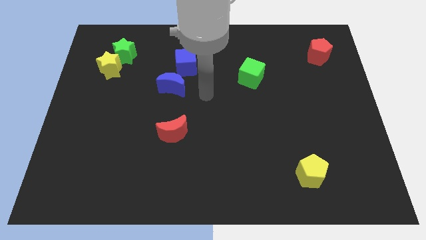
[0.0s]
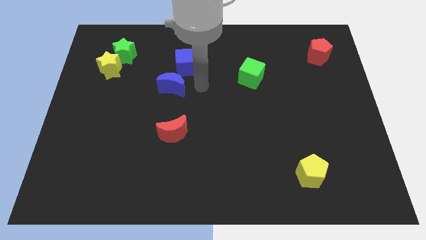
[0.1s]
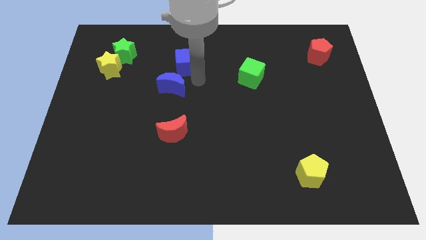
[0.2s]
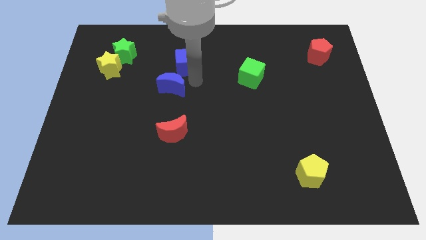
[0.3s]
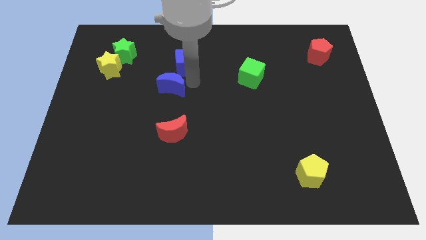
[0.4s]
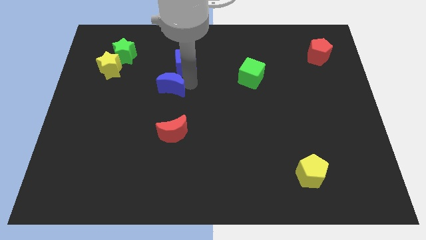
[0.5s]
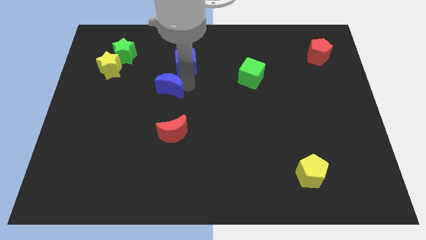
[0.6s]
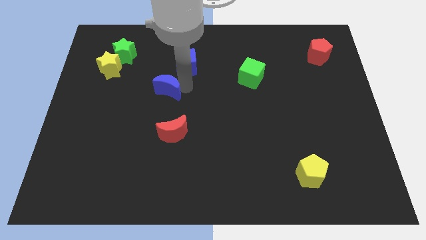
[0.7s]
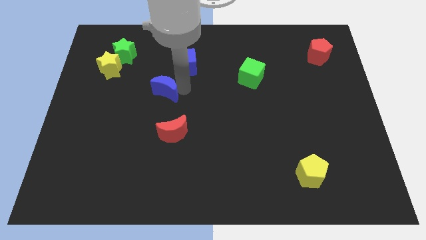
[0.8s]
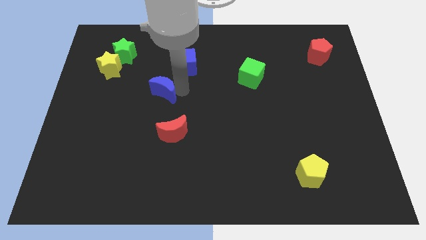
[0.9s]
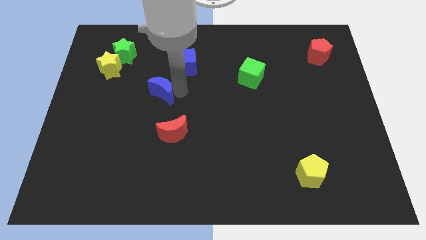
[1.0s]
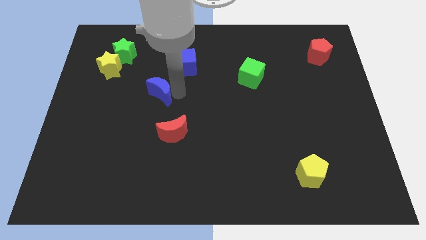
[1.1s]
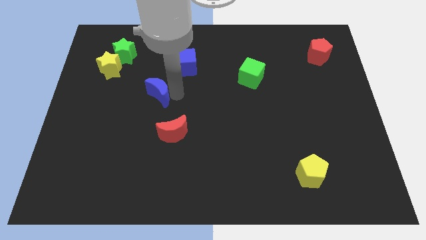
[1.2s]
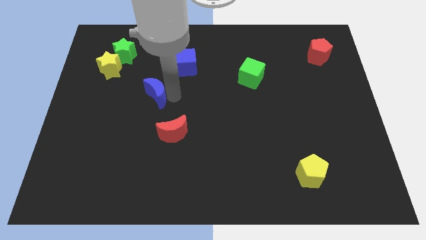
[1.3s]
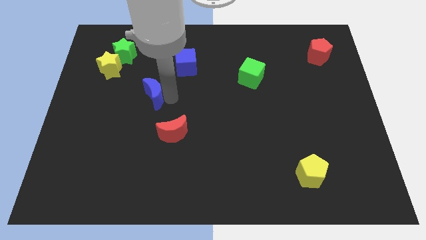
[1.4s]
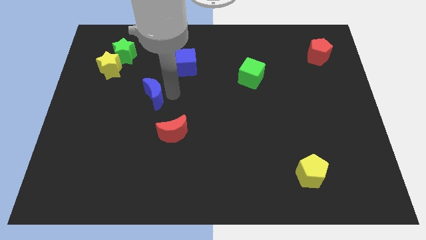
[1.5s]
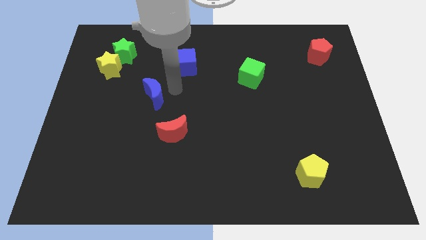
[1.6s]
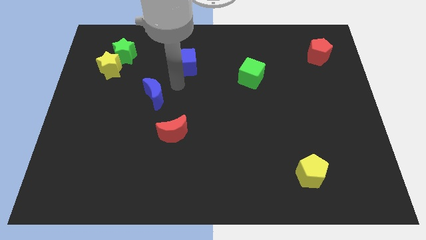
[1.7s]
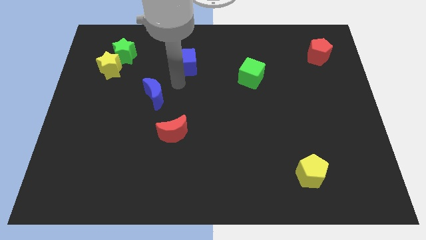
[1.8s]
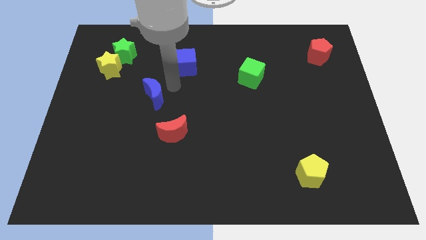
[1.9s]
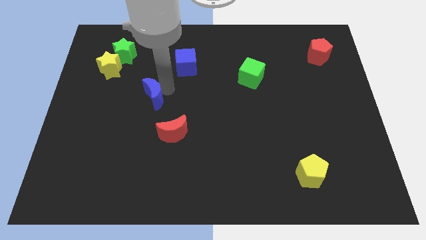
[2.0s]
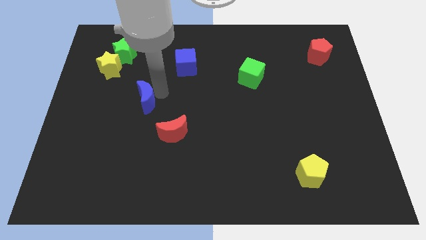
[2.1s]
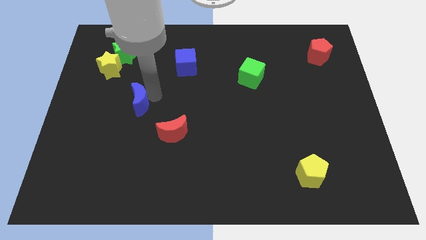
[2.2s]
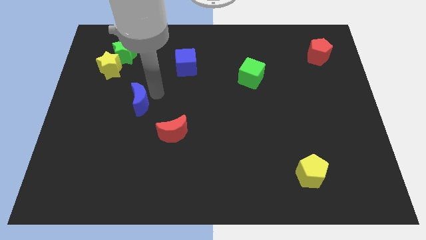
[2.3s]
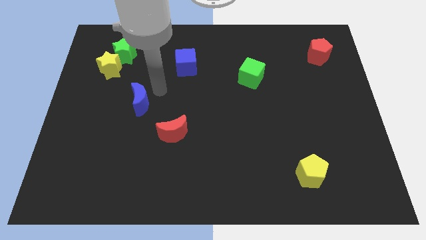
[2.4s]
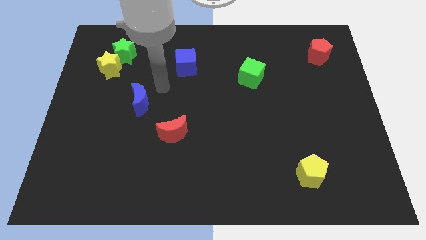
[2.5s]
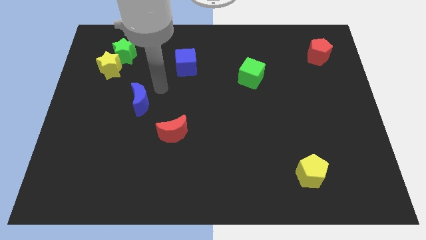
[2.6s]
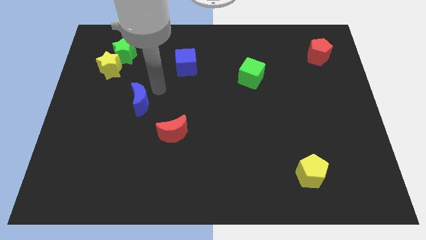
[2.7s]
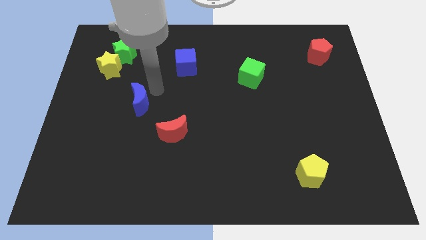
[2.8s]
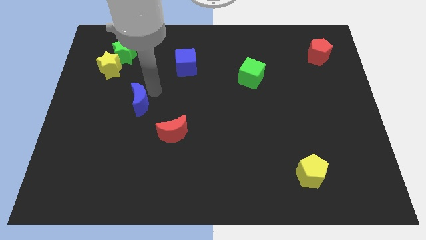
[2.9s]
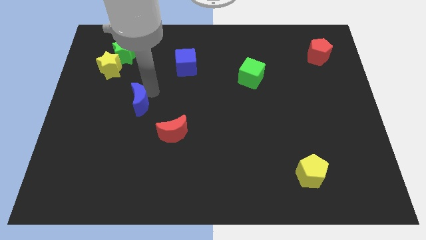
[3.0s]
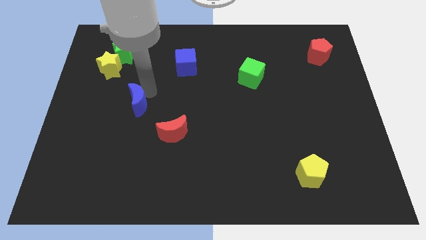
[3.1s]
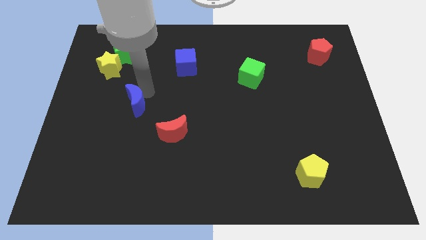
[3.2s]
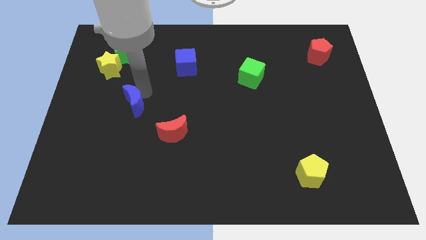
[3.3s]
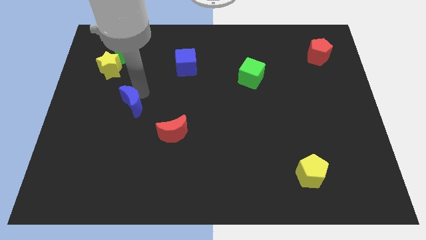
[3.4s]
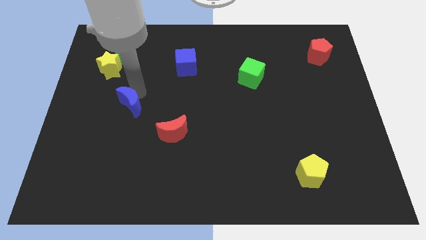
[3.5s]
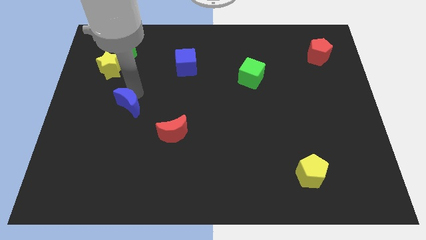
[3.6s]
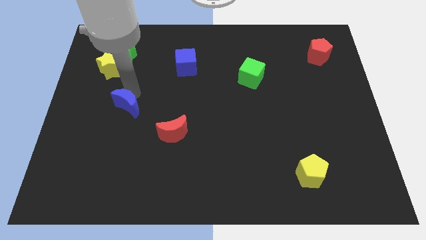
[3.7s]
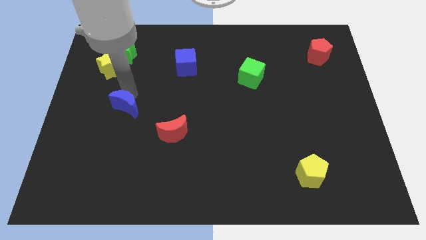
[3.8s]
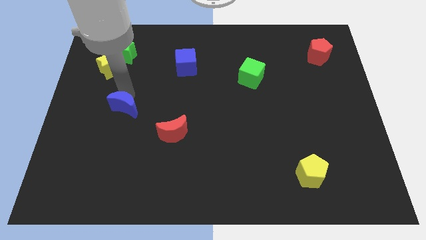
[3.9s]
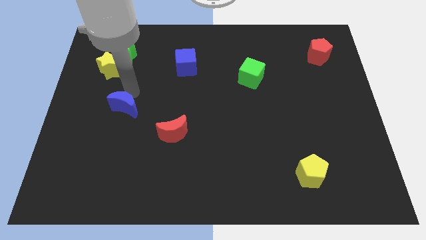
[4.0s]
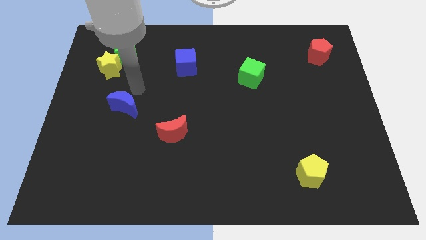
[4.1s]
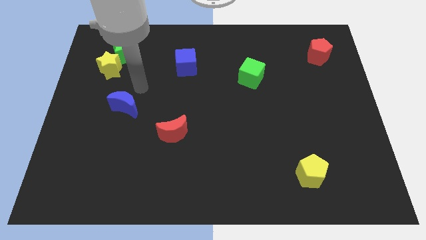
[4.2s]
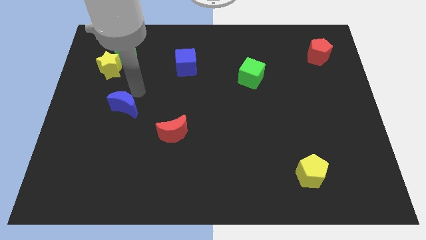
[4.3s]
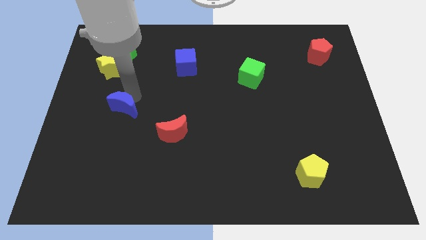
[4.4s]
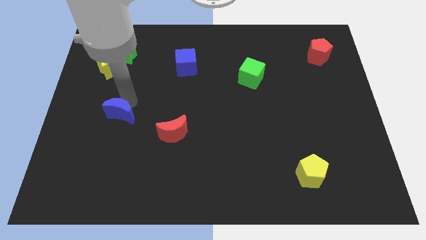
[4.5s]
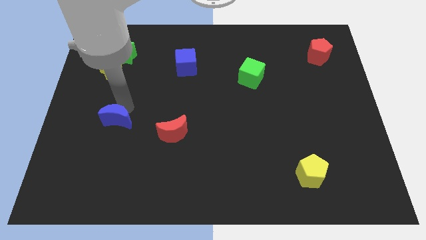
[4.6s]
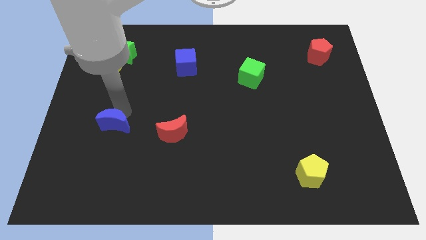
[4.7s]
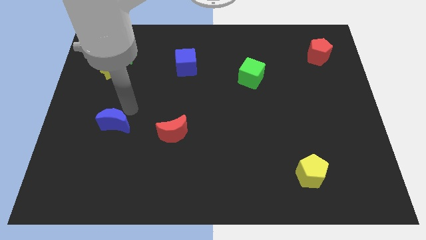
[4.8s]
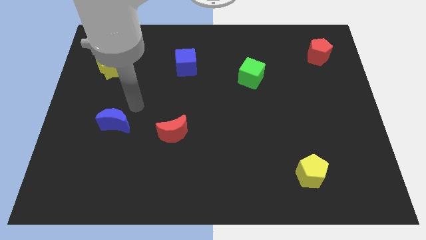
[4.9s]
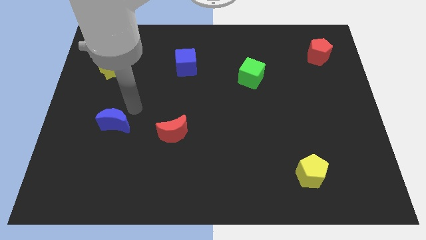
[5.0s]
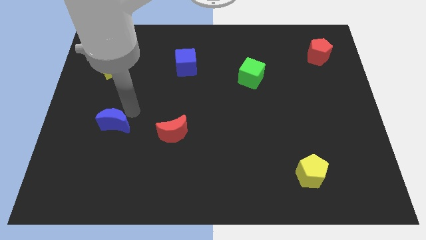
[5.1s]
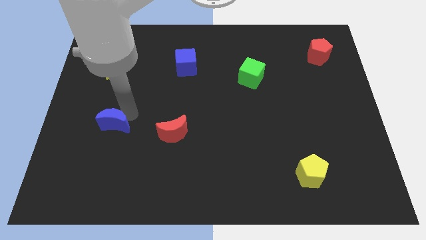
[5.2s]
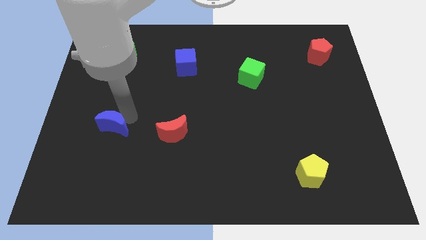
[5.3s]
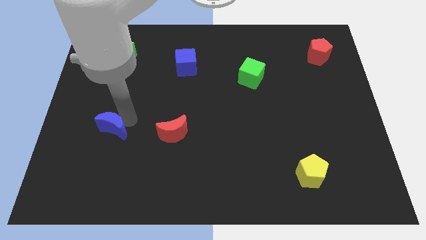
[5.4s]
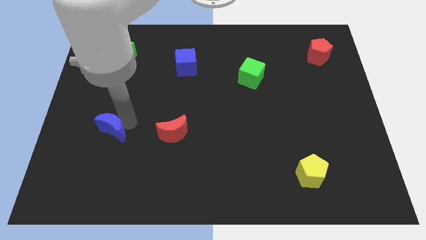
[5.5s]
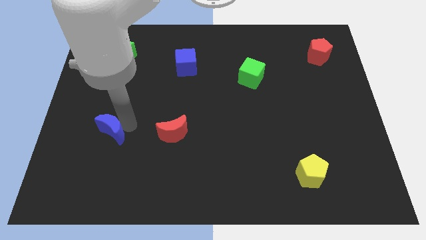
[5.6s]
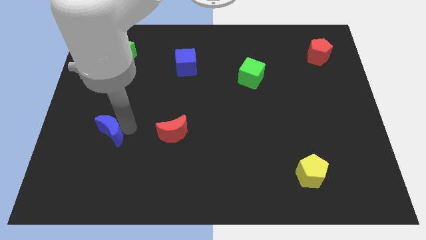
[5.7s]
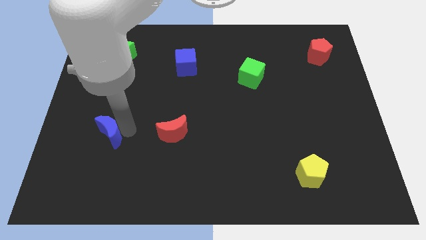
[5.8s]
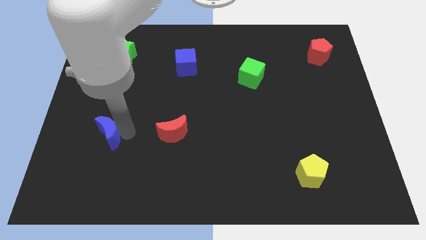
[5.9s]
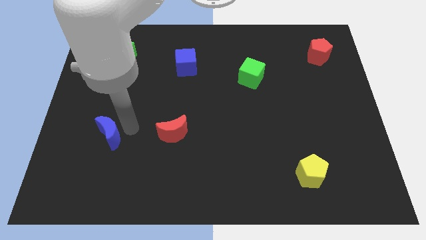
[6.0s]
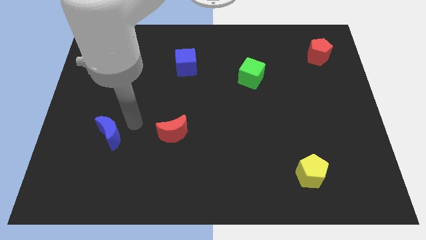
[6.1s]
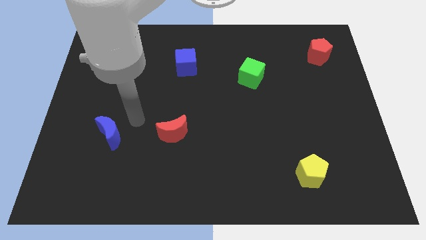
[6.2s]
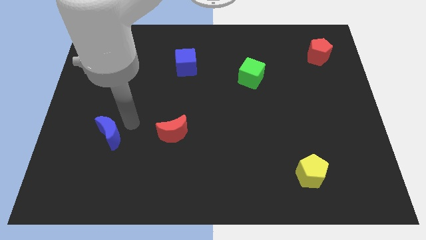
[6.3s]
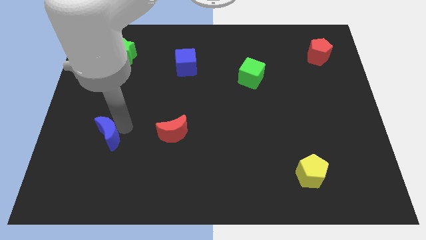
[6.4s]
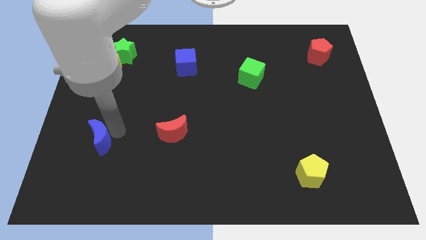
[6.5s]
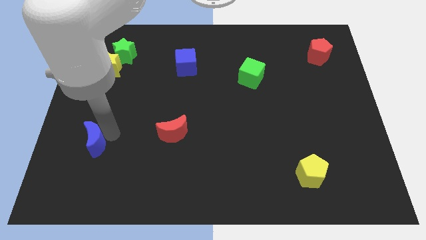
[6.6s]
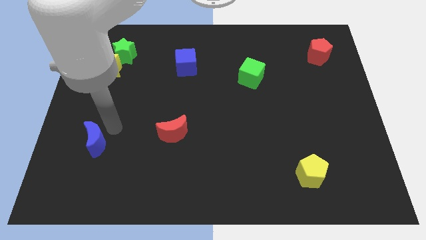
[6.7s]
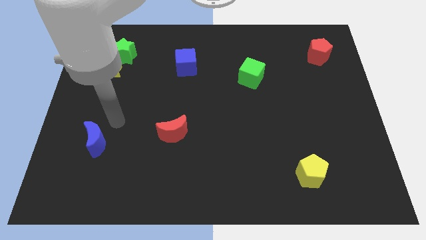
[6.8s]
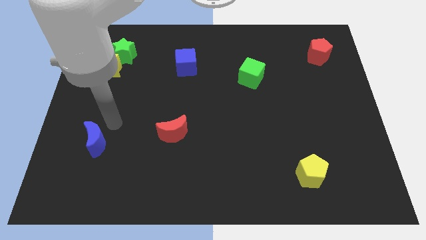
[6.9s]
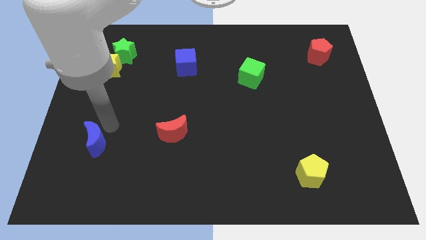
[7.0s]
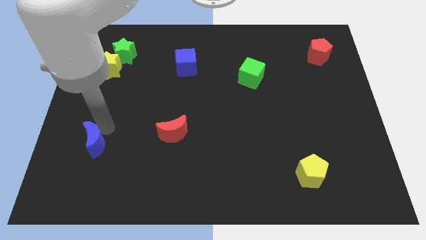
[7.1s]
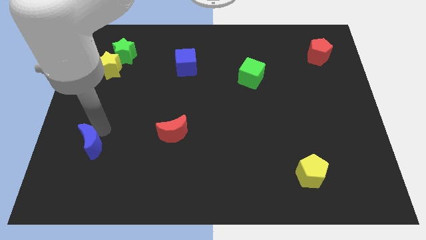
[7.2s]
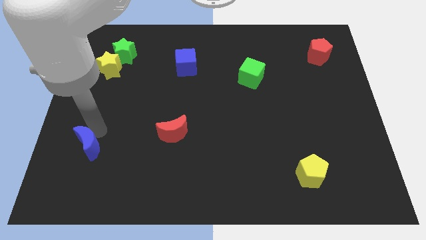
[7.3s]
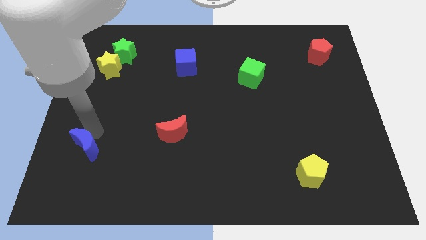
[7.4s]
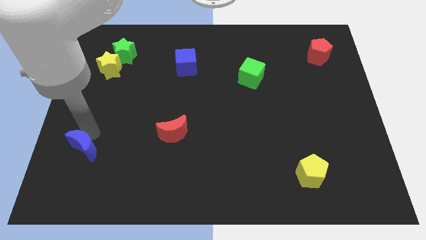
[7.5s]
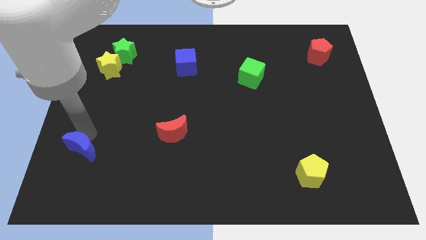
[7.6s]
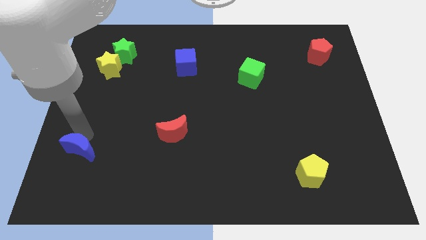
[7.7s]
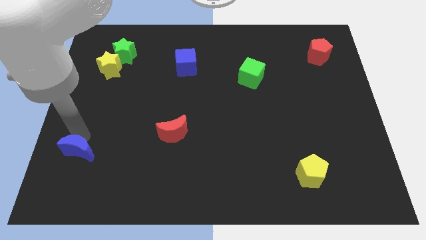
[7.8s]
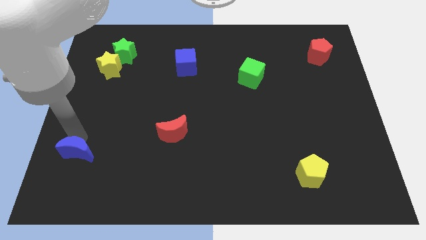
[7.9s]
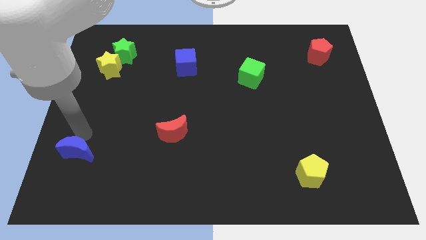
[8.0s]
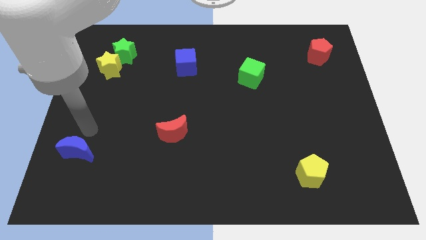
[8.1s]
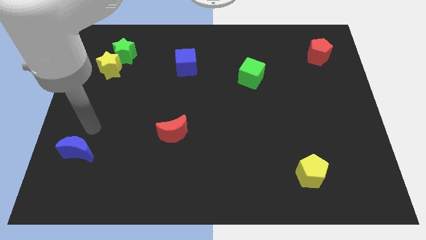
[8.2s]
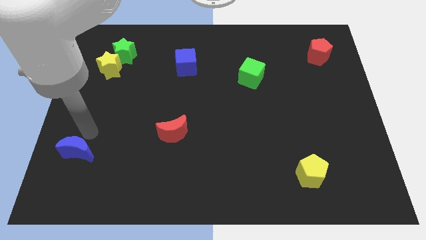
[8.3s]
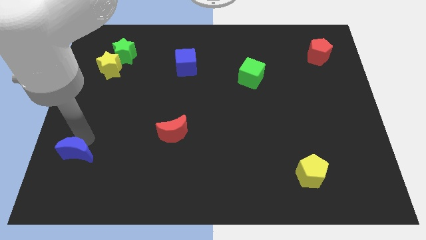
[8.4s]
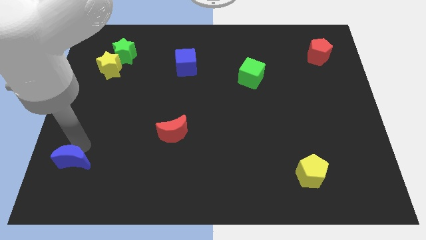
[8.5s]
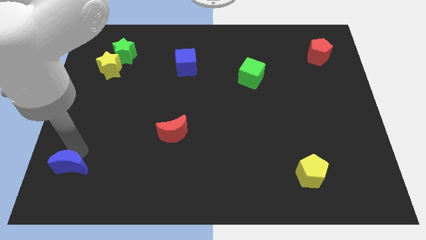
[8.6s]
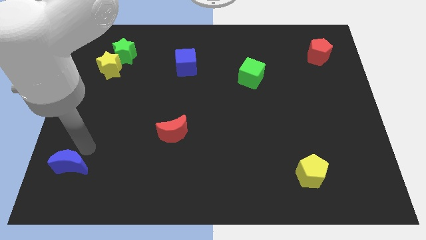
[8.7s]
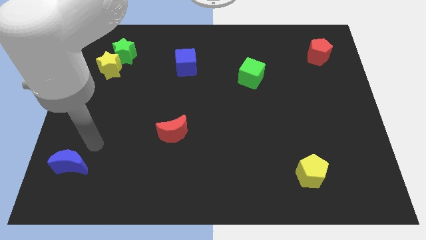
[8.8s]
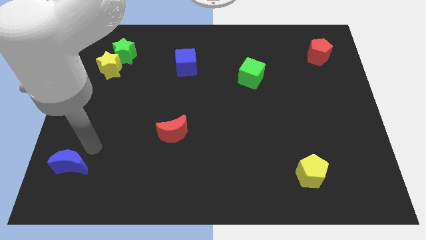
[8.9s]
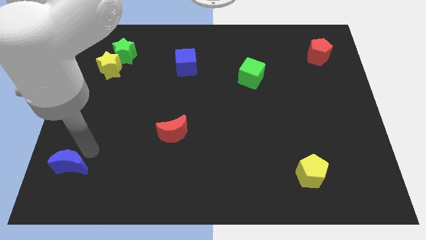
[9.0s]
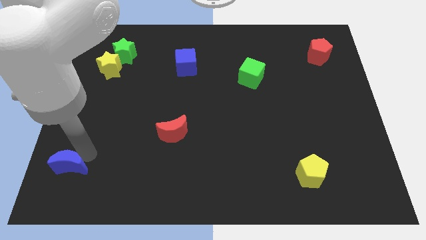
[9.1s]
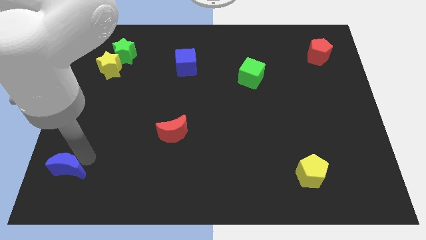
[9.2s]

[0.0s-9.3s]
put the blue moon to the lower left corner
